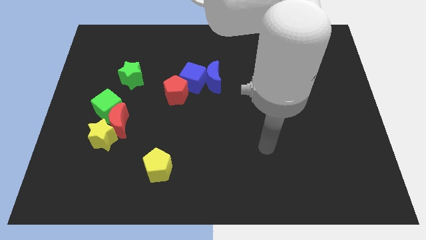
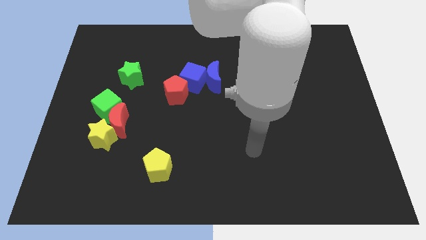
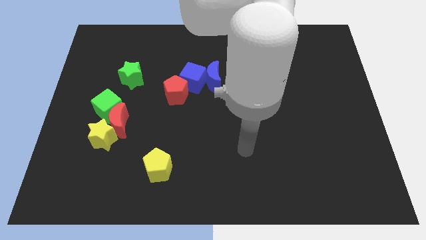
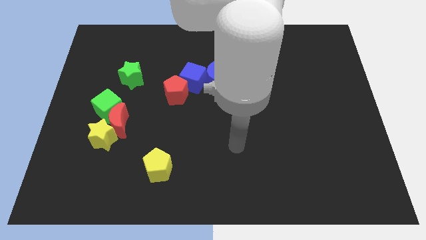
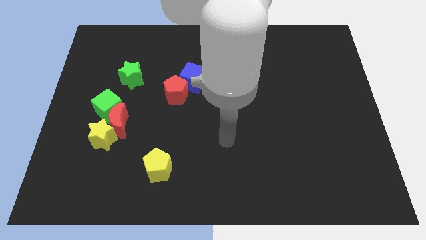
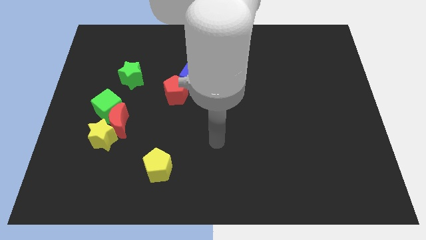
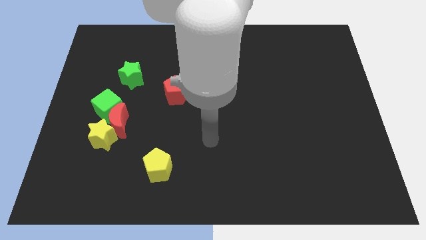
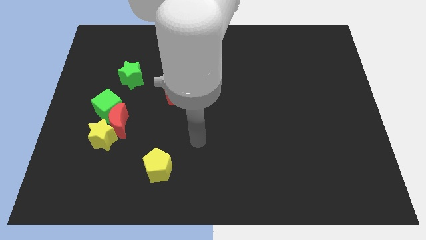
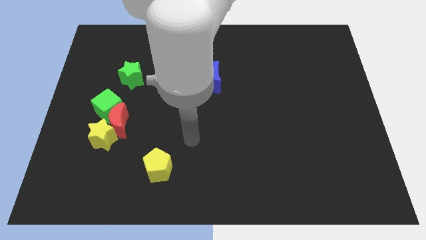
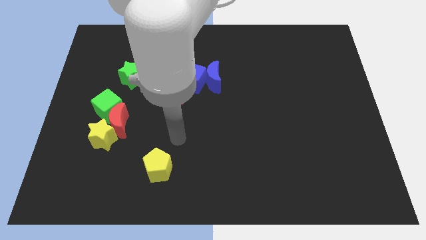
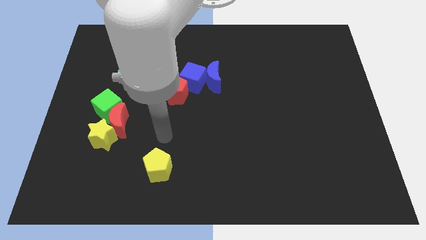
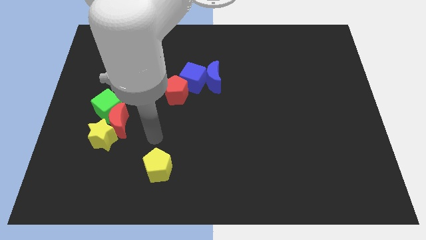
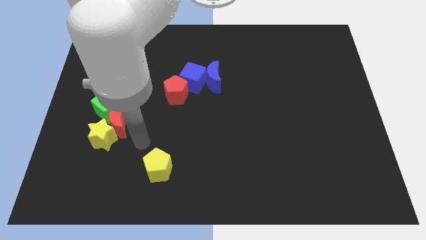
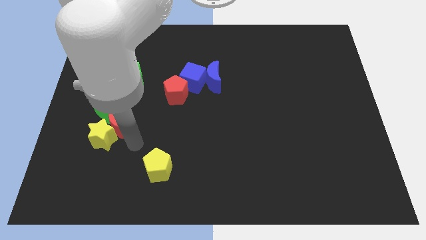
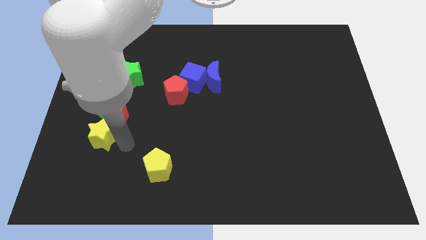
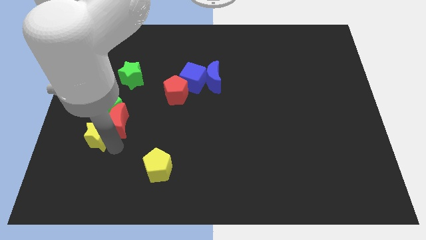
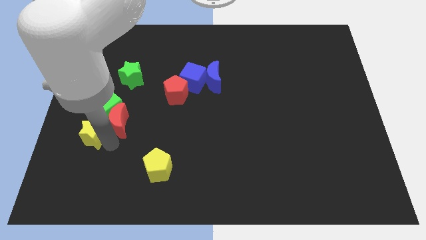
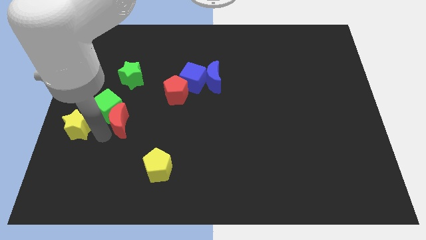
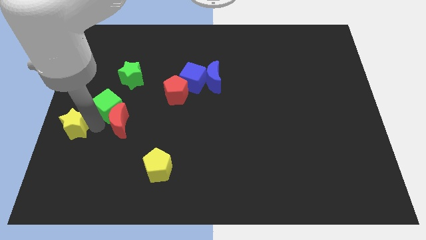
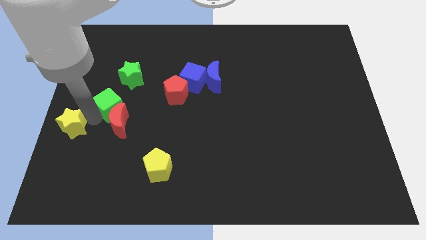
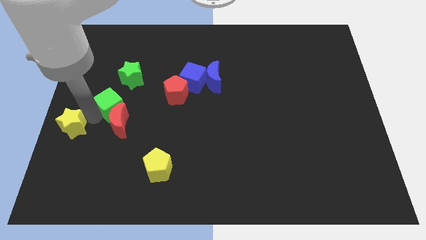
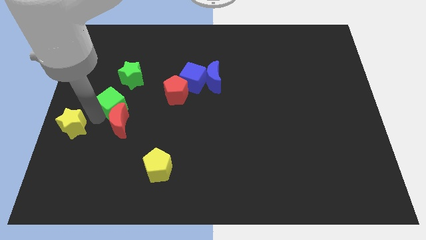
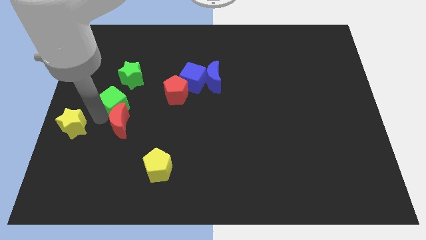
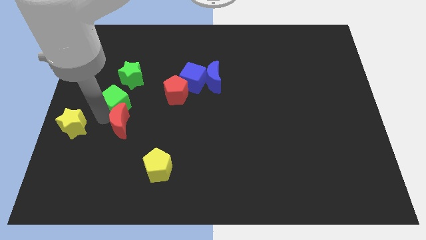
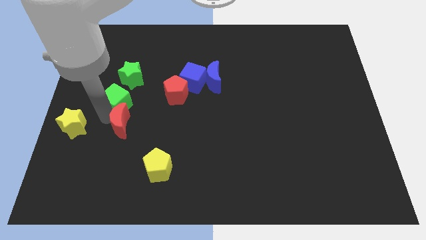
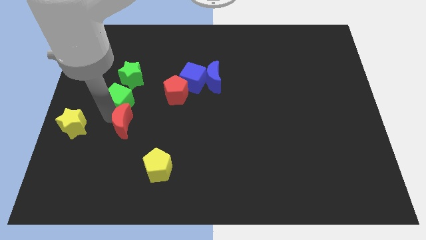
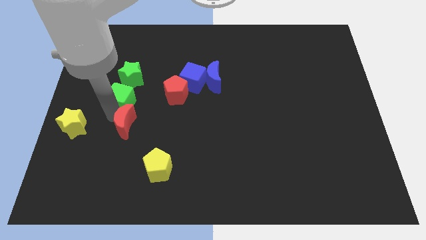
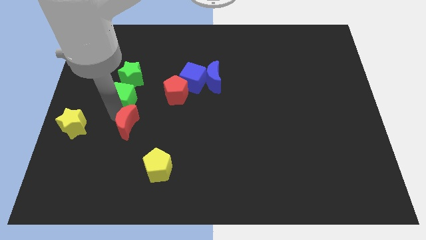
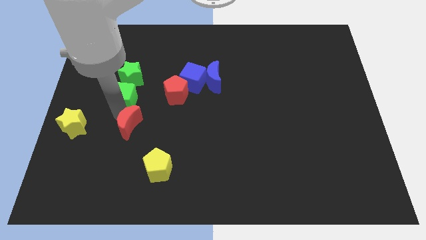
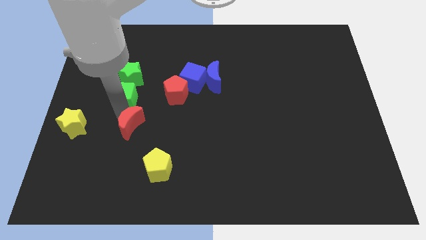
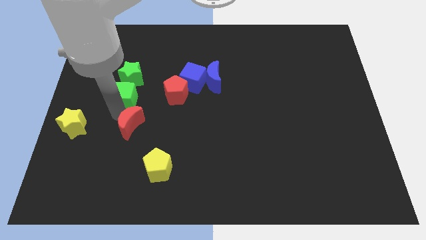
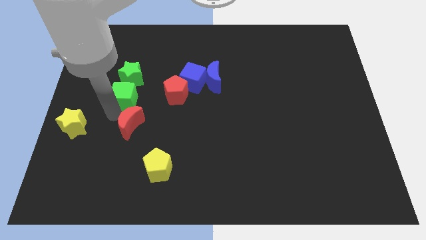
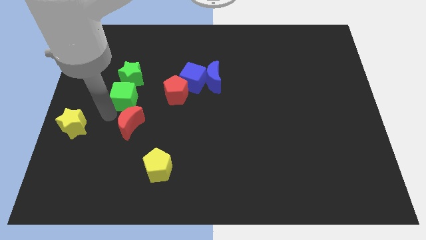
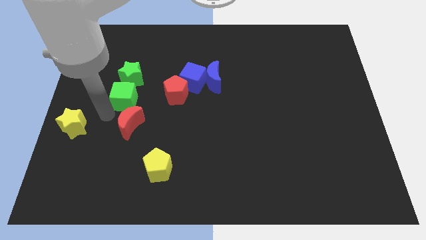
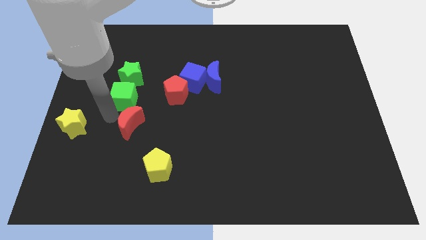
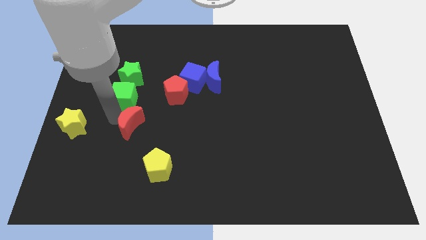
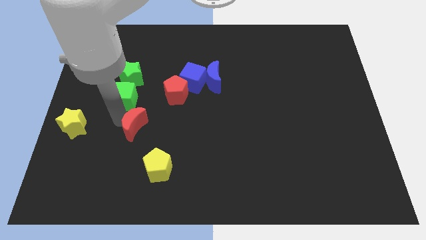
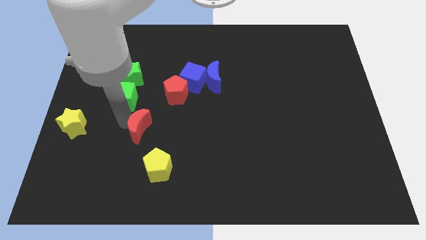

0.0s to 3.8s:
separate the red moon from the yellow star and green cube

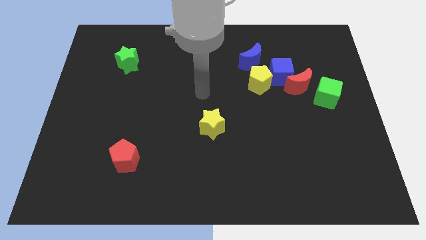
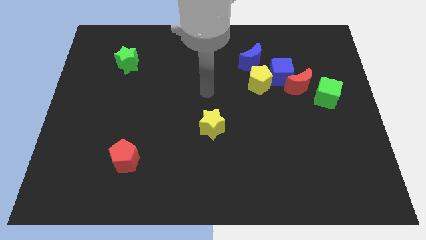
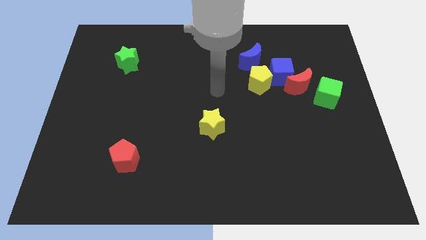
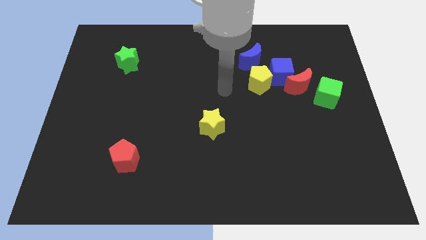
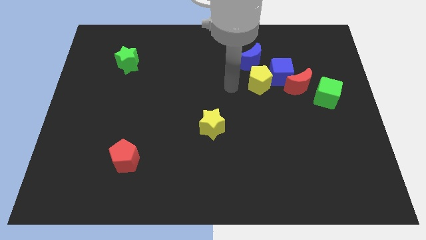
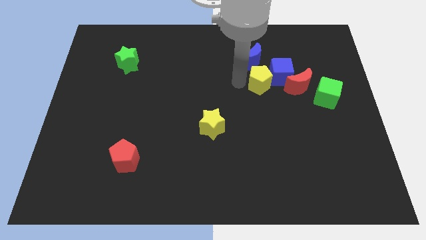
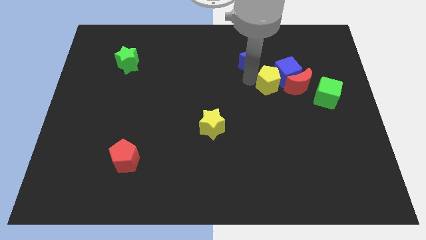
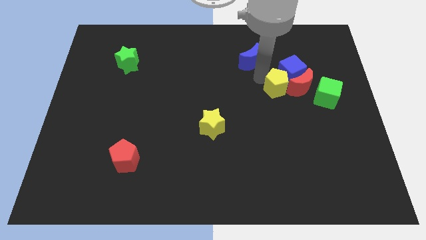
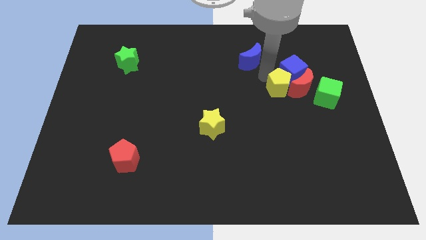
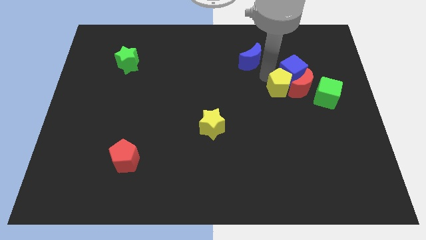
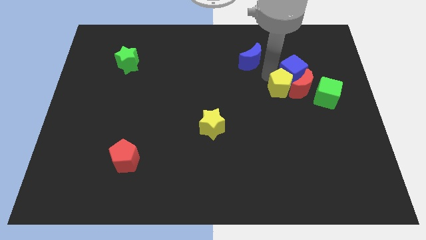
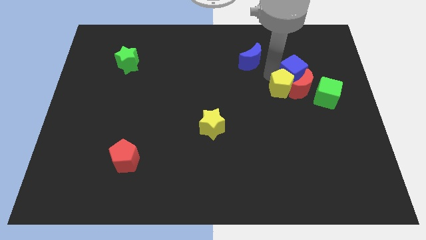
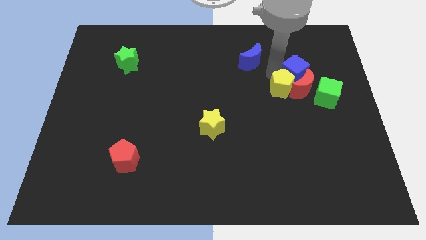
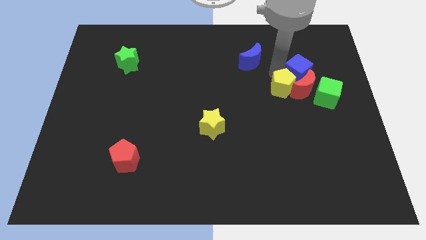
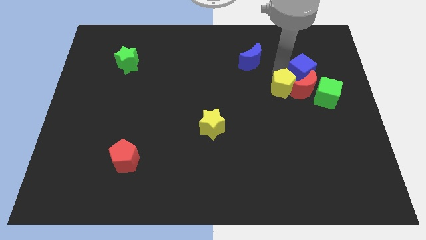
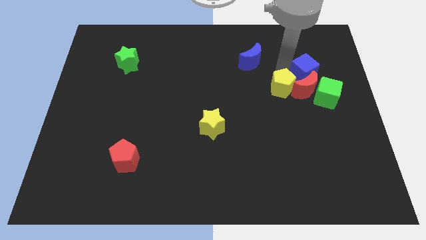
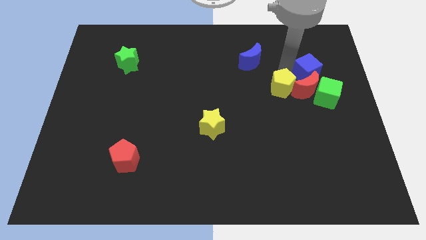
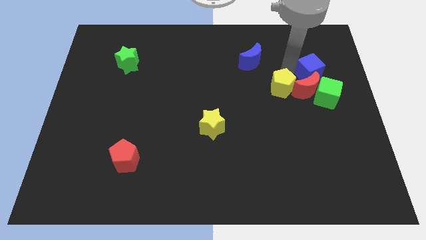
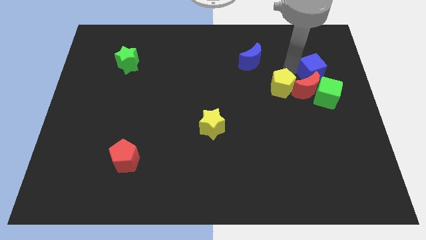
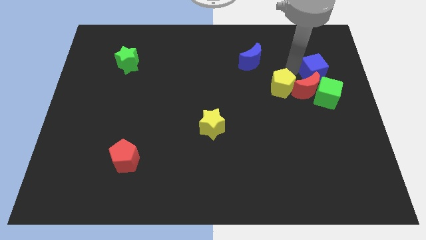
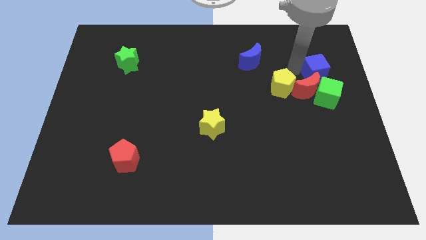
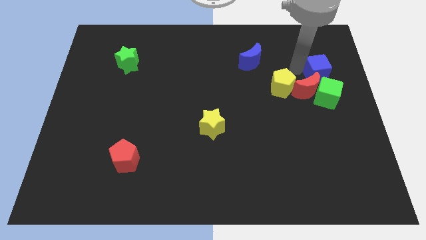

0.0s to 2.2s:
pull the blue cube apart from the red moon, yellow pentagon, and blue moon

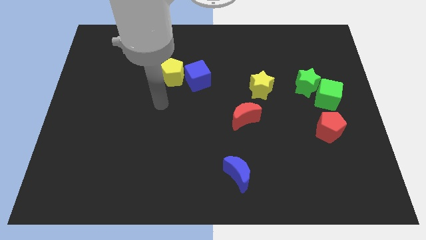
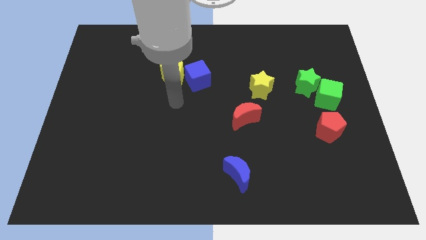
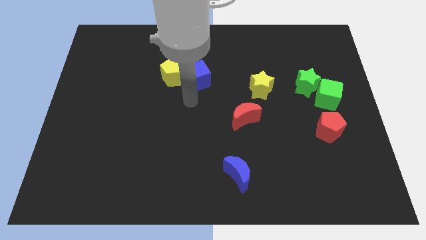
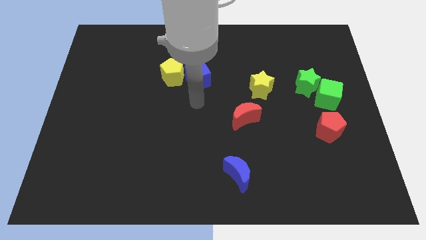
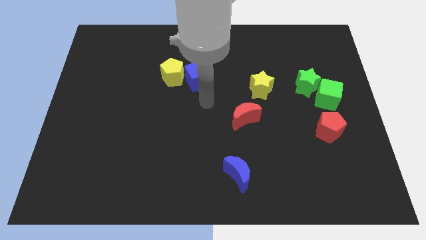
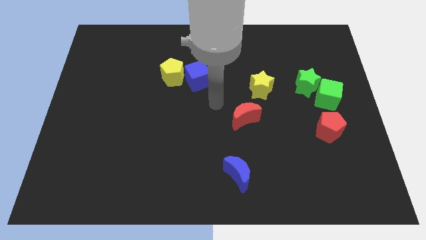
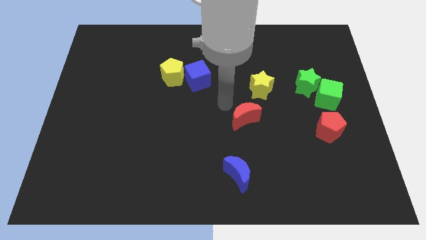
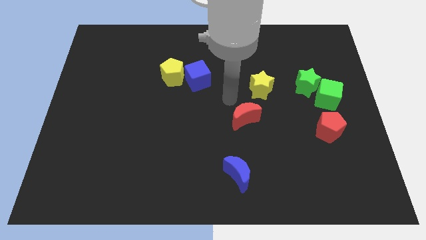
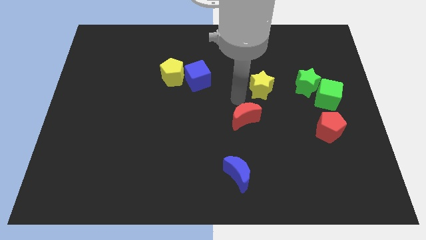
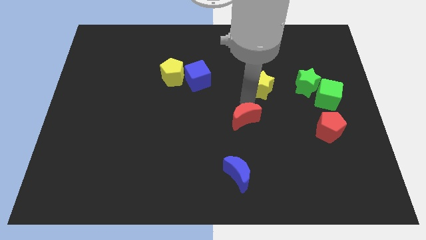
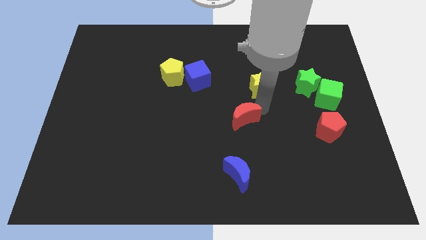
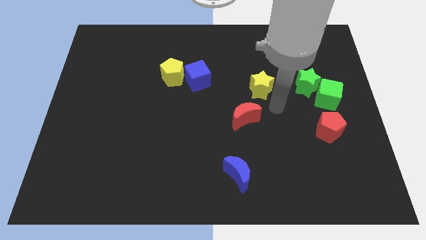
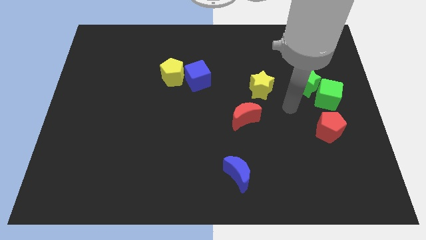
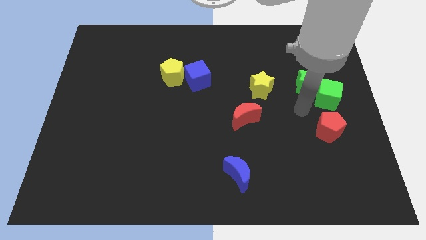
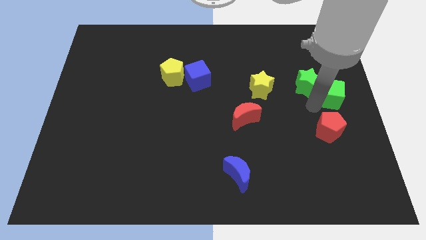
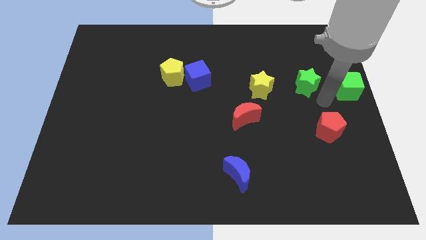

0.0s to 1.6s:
separate the green star from the green cube

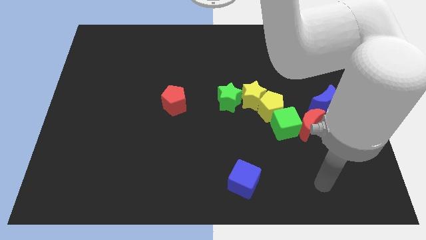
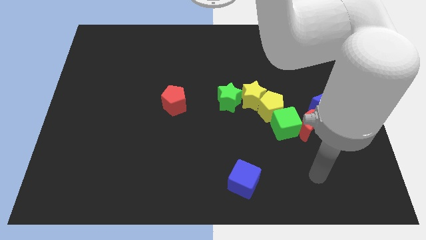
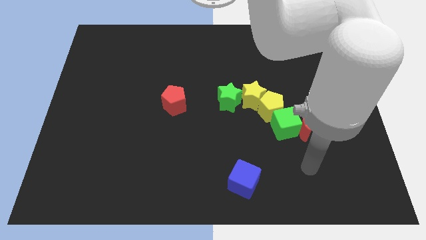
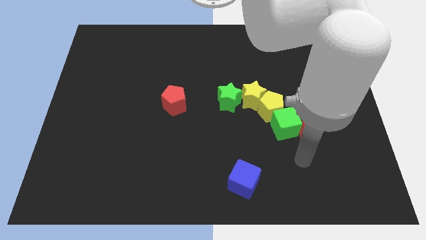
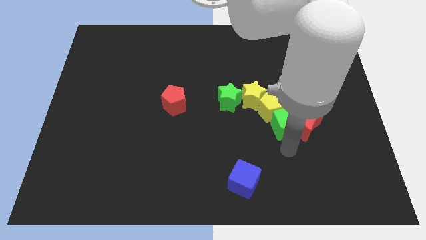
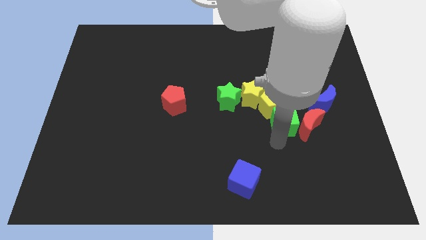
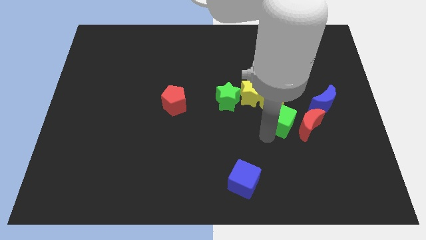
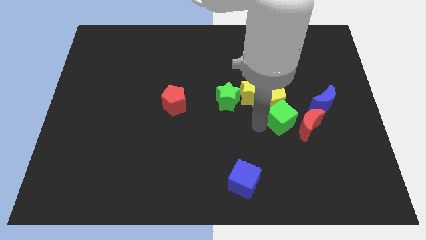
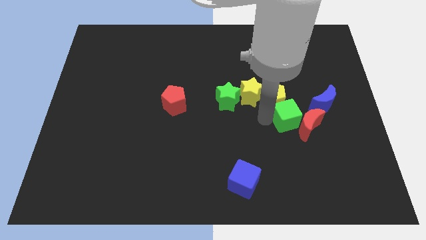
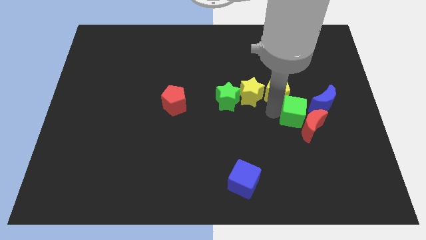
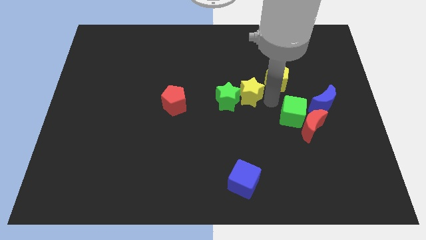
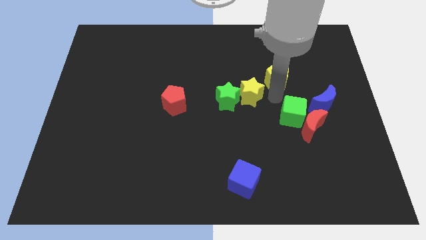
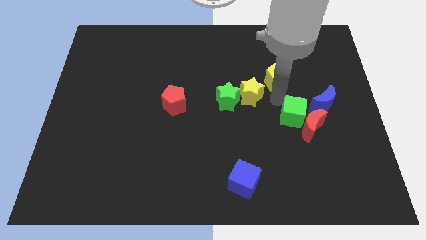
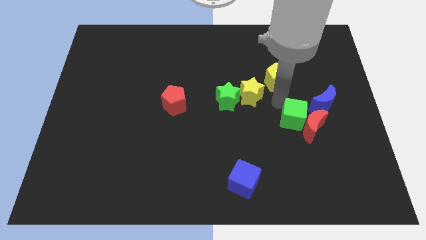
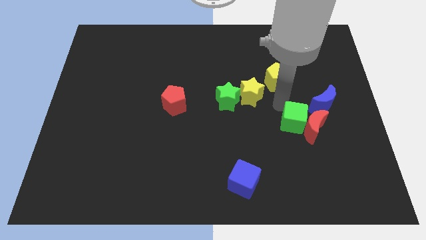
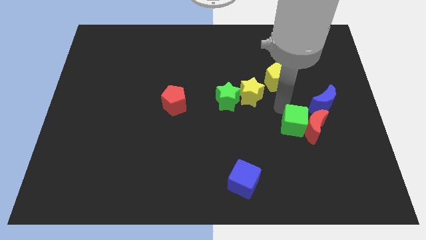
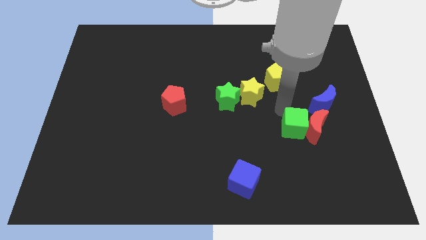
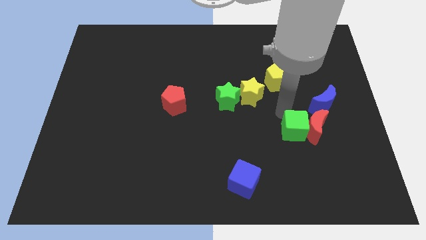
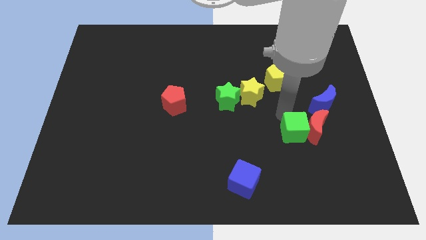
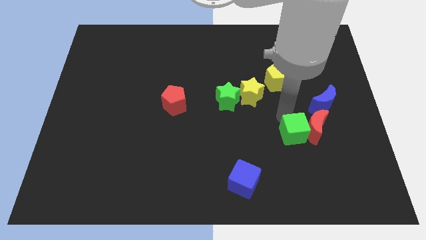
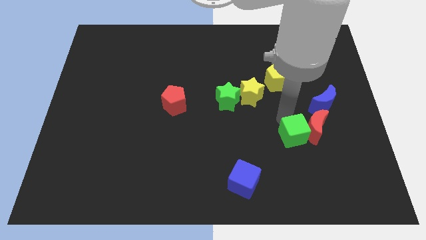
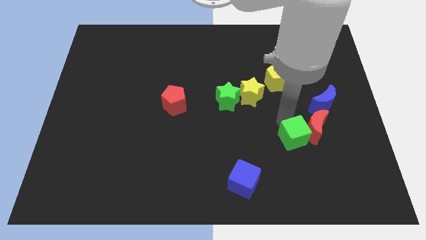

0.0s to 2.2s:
move the green cube away from the group
